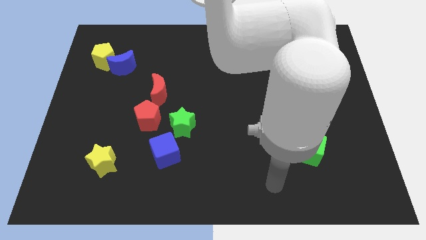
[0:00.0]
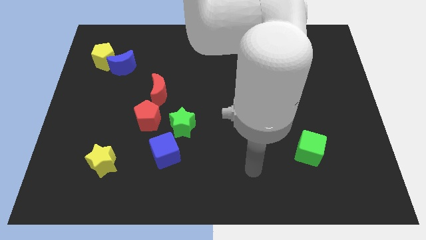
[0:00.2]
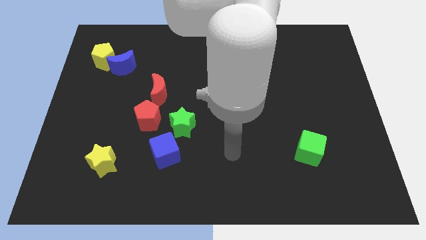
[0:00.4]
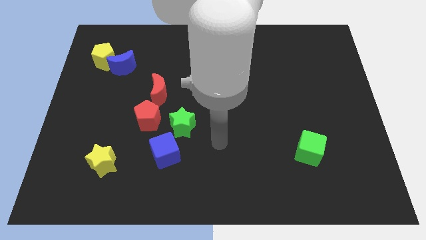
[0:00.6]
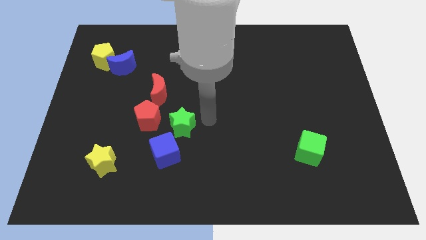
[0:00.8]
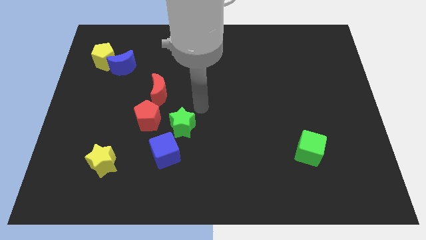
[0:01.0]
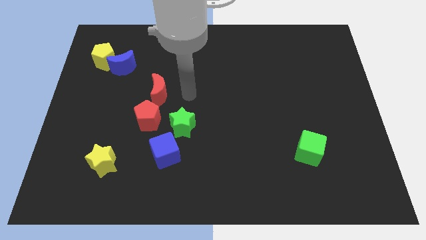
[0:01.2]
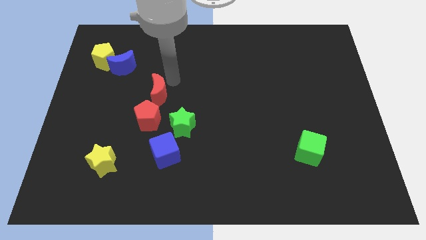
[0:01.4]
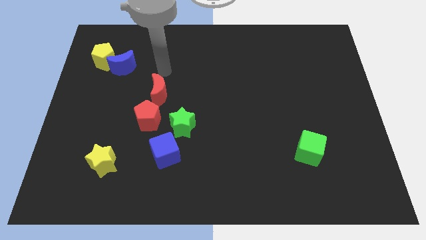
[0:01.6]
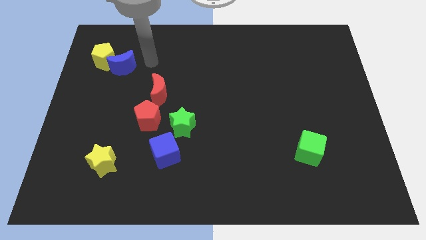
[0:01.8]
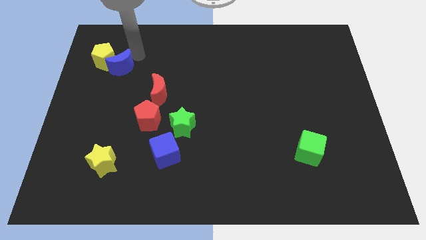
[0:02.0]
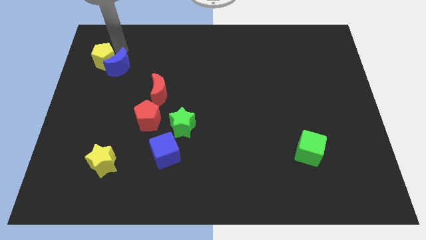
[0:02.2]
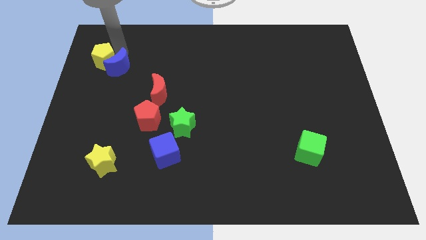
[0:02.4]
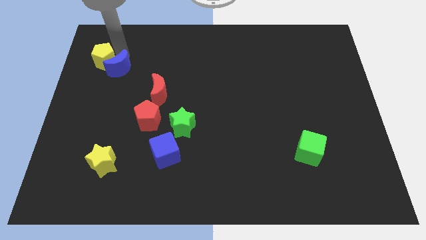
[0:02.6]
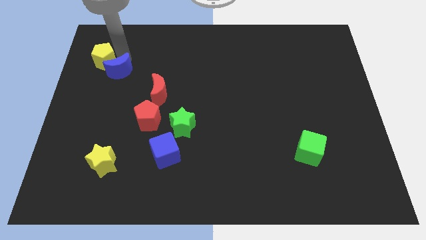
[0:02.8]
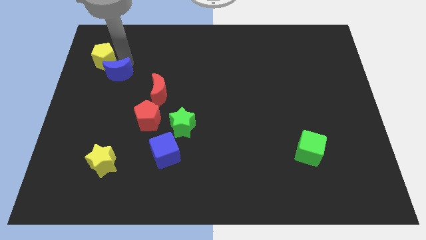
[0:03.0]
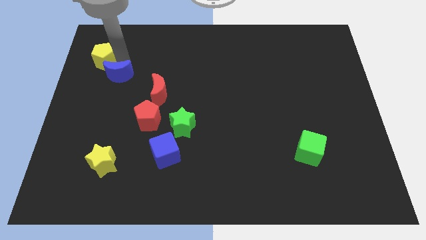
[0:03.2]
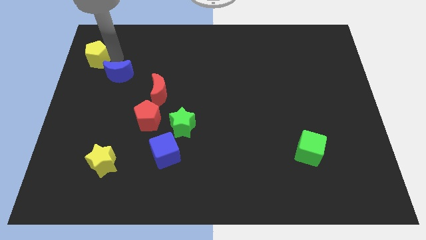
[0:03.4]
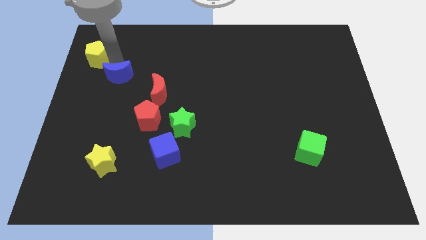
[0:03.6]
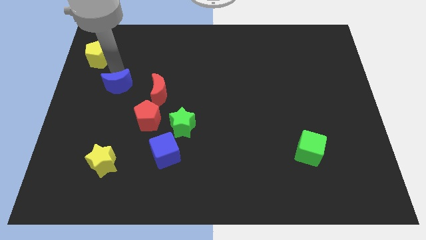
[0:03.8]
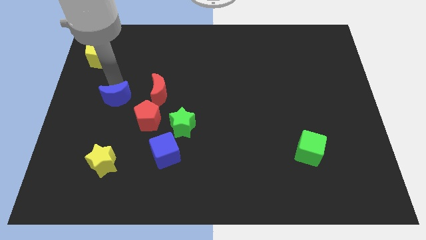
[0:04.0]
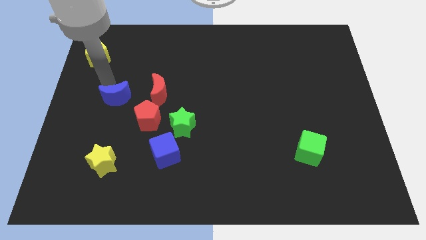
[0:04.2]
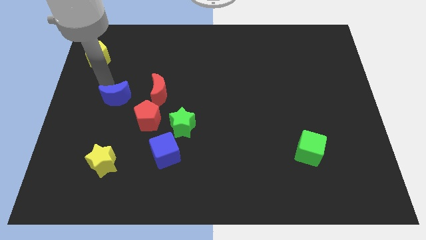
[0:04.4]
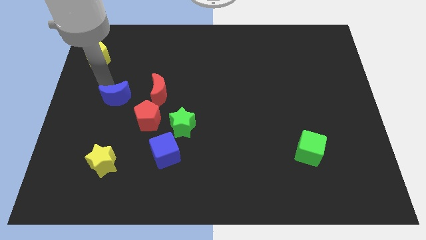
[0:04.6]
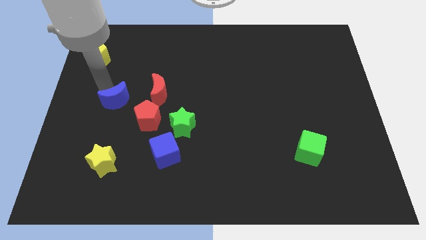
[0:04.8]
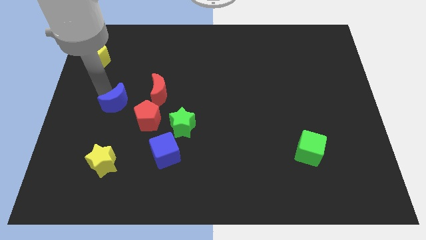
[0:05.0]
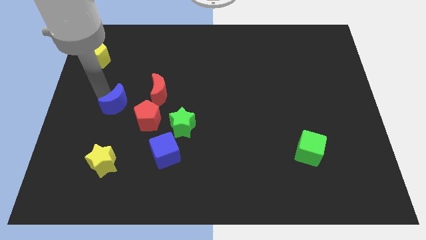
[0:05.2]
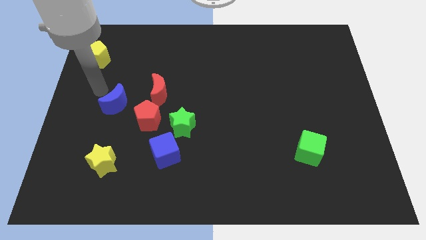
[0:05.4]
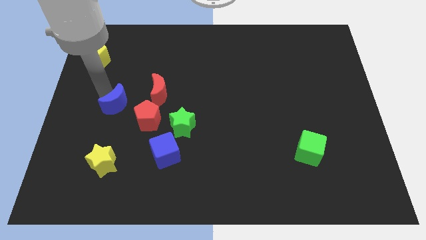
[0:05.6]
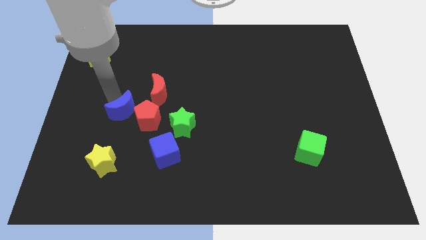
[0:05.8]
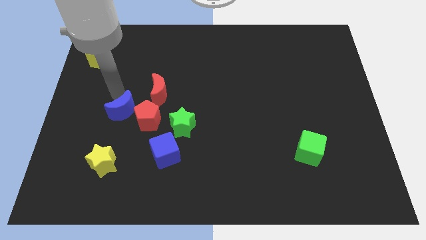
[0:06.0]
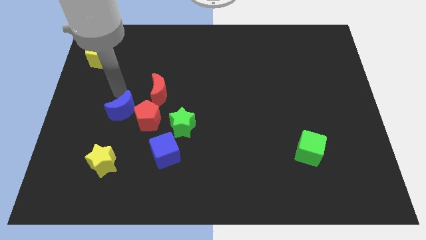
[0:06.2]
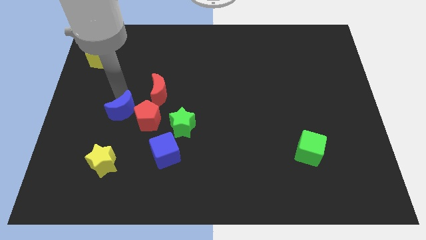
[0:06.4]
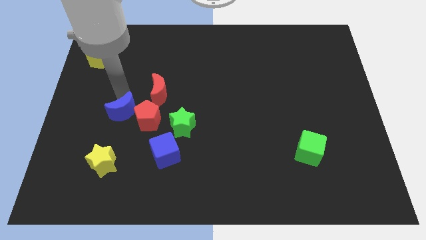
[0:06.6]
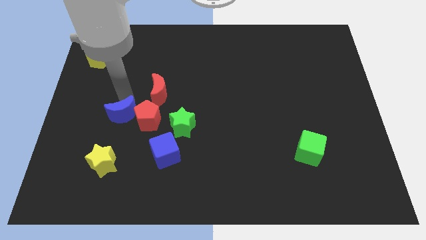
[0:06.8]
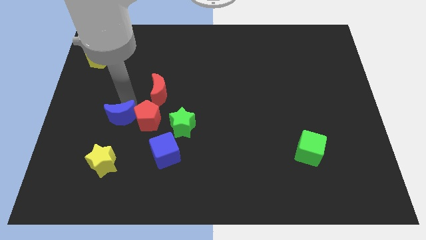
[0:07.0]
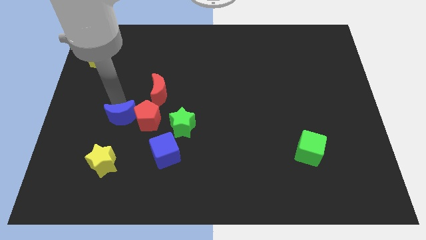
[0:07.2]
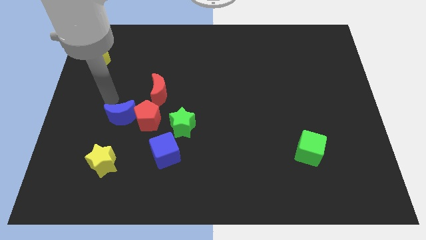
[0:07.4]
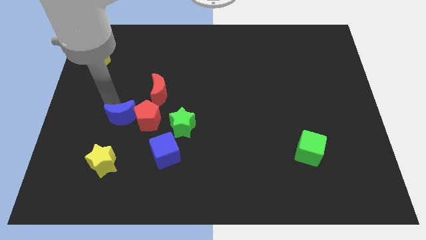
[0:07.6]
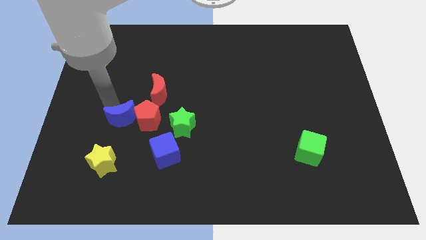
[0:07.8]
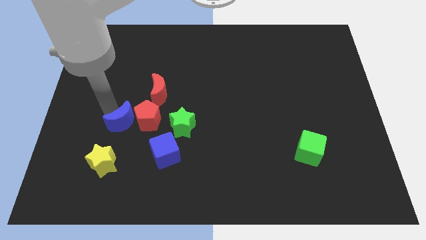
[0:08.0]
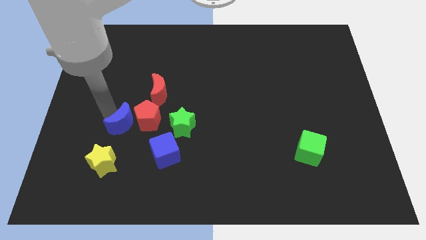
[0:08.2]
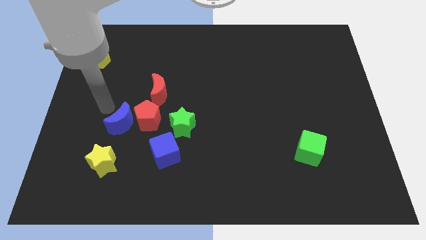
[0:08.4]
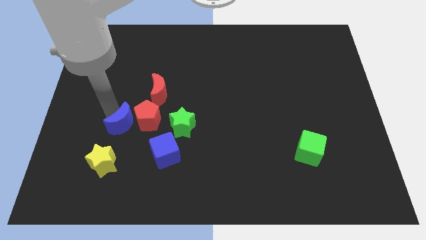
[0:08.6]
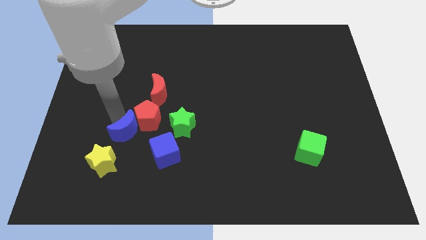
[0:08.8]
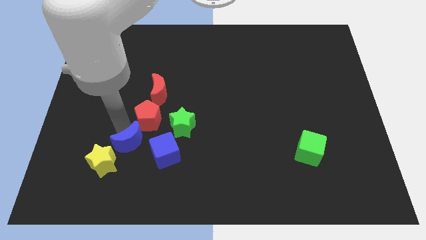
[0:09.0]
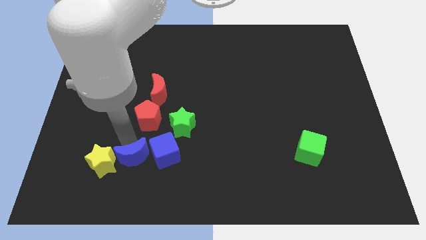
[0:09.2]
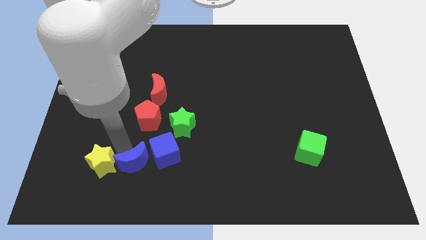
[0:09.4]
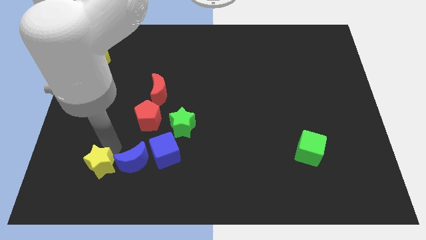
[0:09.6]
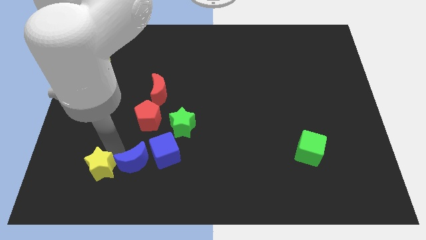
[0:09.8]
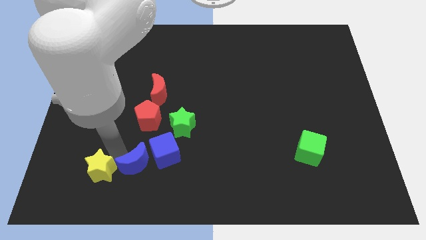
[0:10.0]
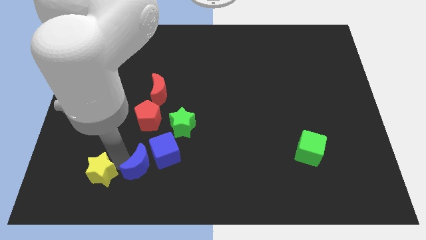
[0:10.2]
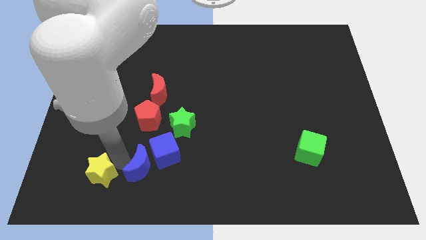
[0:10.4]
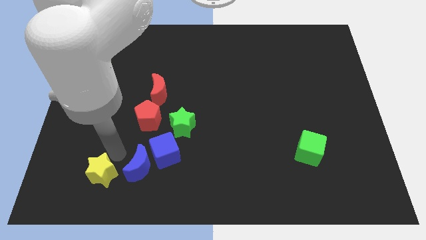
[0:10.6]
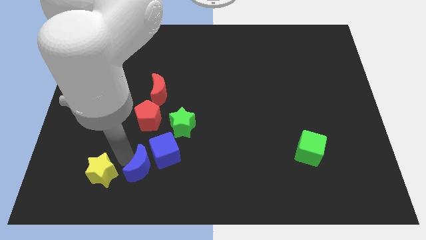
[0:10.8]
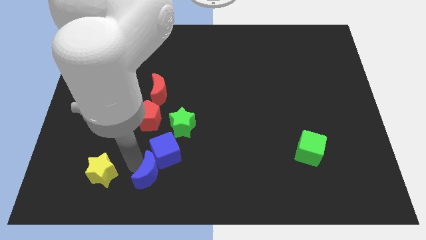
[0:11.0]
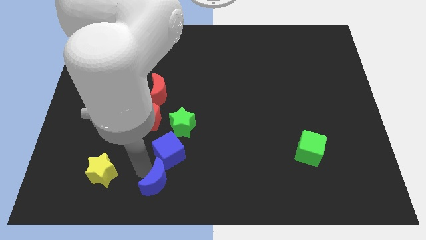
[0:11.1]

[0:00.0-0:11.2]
move the blue moon to the bottom side

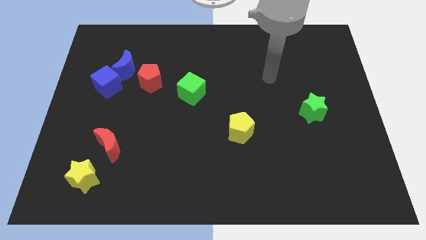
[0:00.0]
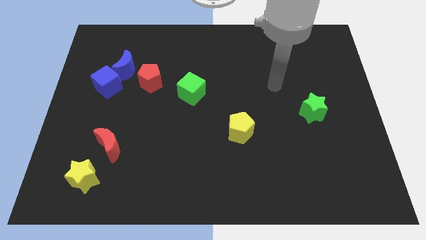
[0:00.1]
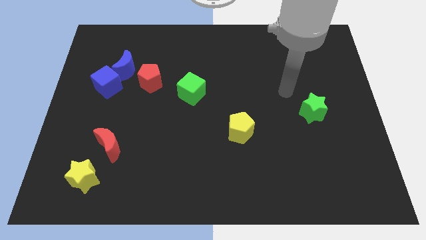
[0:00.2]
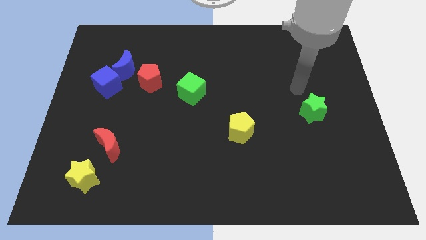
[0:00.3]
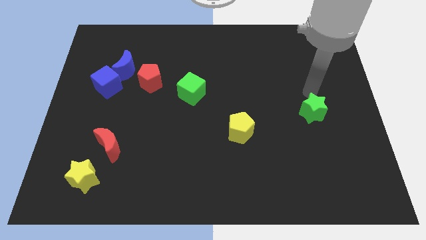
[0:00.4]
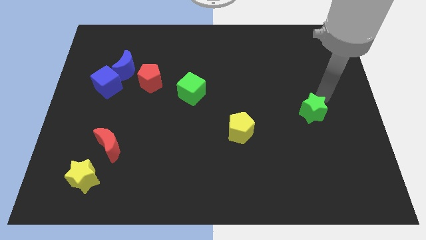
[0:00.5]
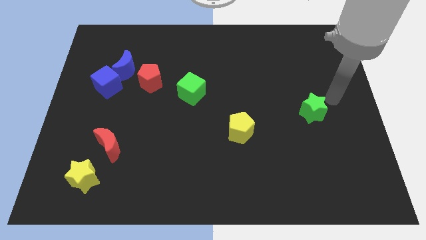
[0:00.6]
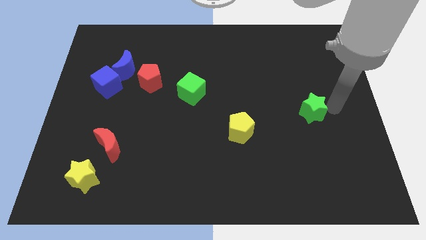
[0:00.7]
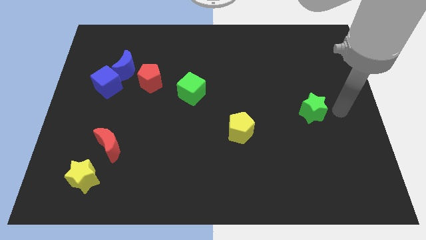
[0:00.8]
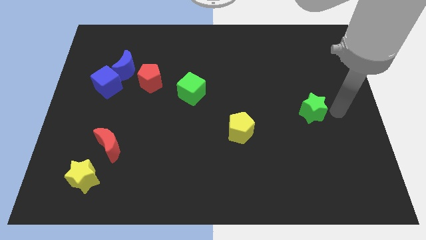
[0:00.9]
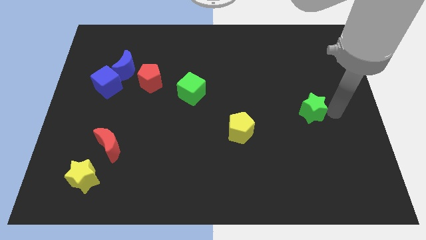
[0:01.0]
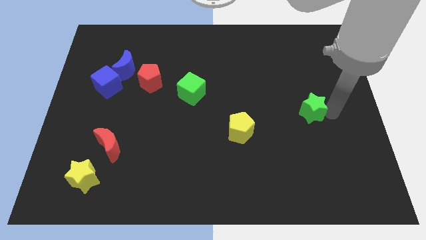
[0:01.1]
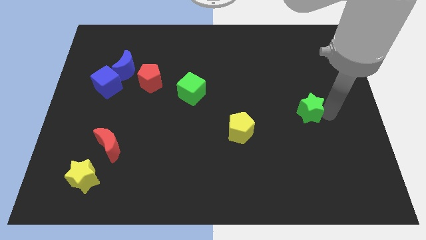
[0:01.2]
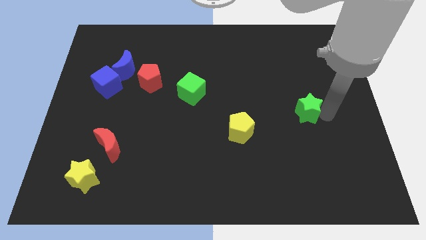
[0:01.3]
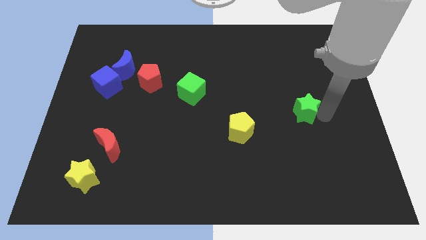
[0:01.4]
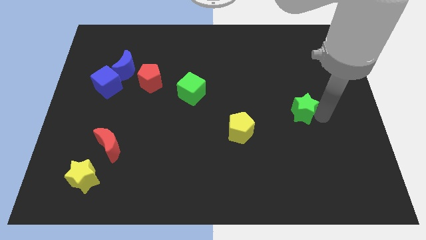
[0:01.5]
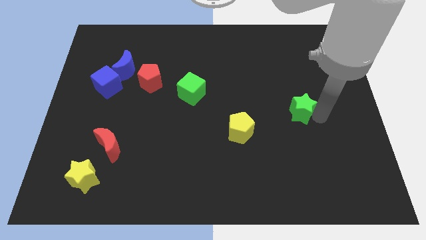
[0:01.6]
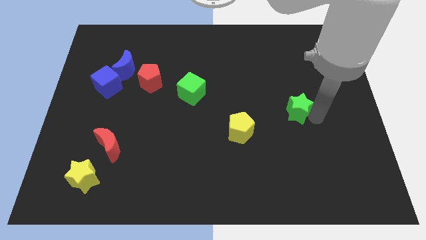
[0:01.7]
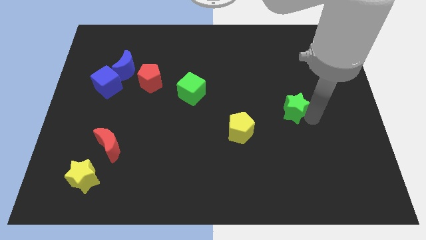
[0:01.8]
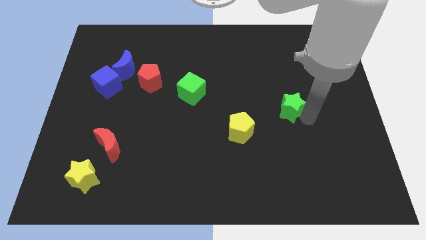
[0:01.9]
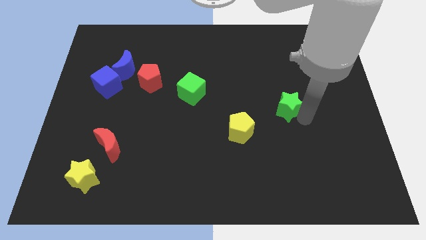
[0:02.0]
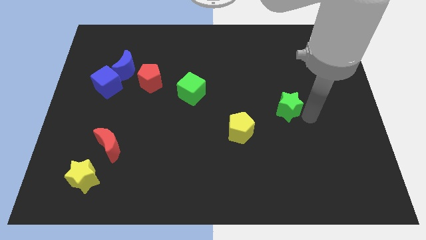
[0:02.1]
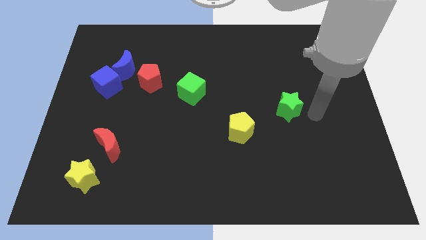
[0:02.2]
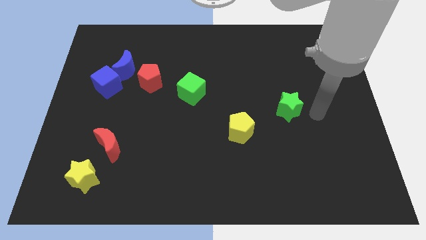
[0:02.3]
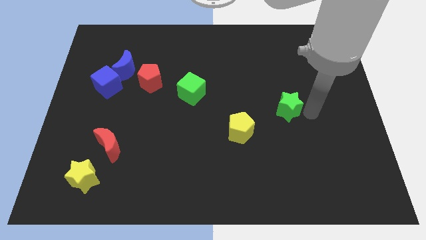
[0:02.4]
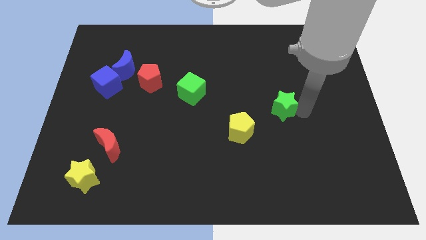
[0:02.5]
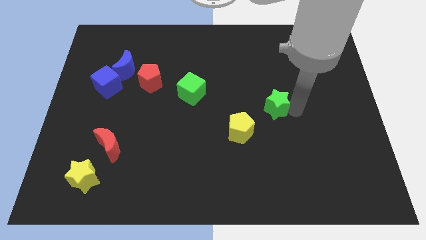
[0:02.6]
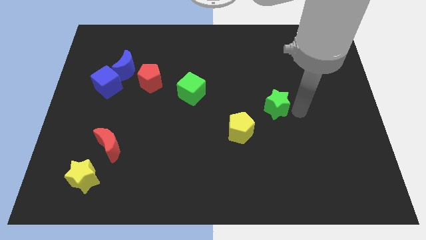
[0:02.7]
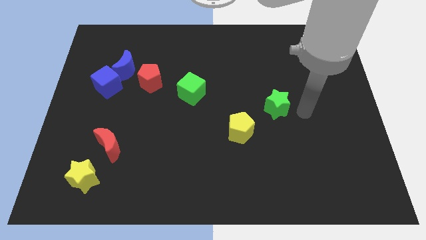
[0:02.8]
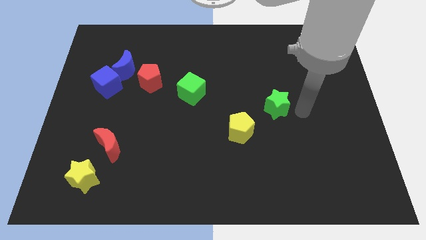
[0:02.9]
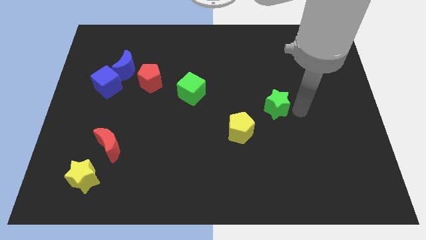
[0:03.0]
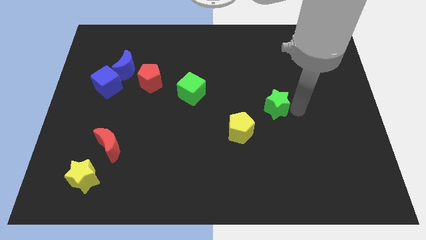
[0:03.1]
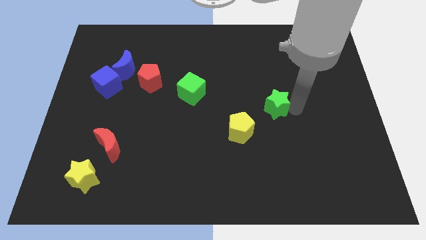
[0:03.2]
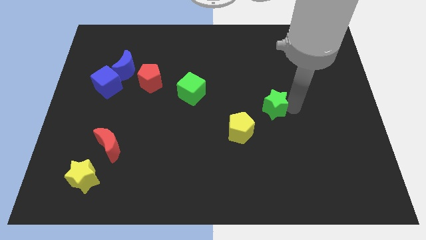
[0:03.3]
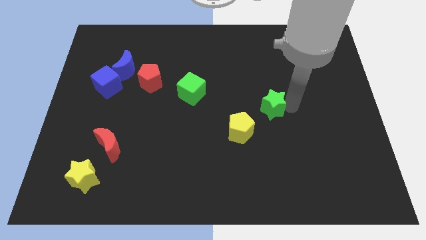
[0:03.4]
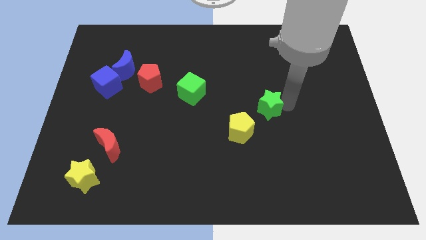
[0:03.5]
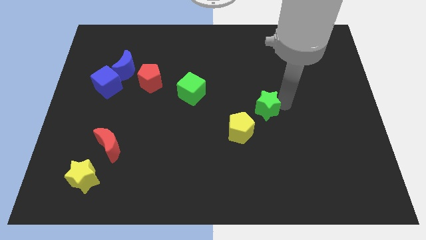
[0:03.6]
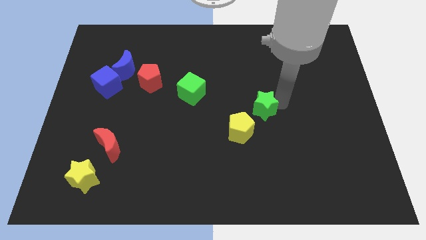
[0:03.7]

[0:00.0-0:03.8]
slide the green star to the center
